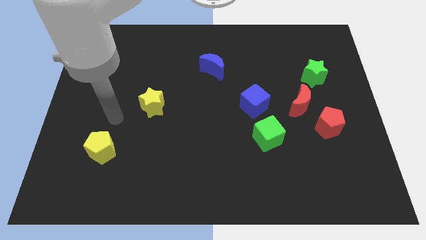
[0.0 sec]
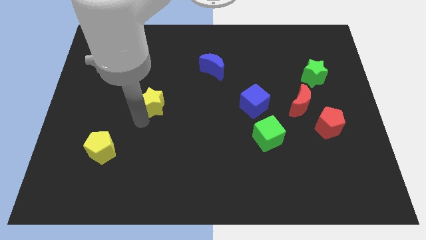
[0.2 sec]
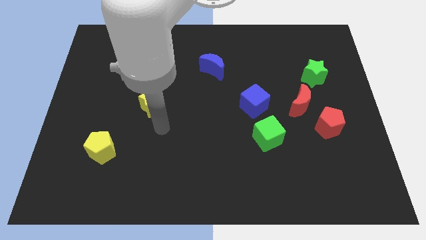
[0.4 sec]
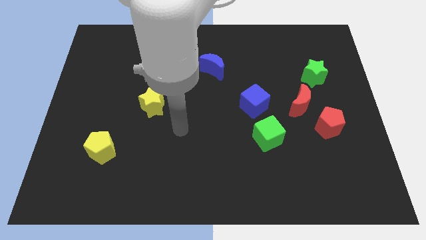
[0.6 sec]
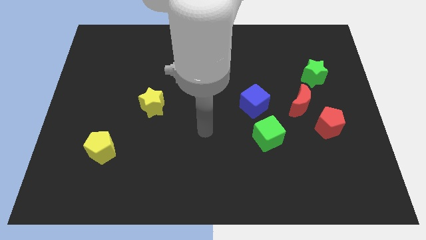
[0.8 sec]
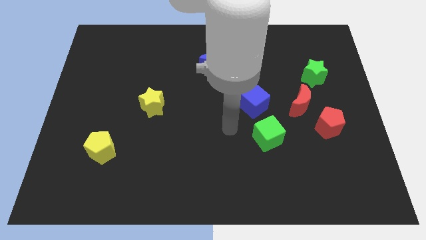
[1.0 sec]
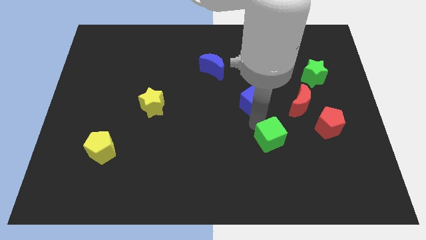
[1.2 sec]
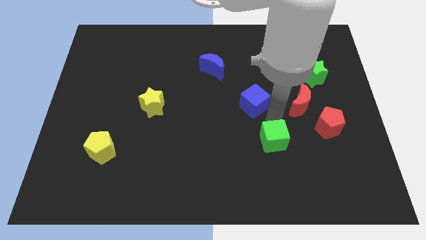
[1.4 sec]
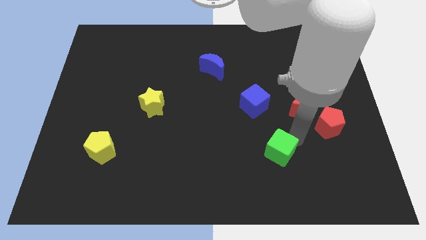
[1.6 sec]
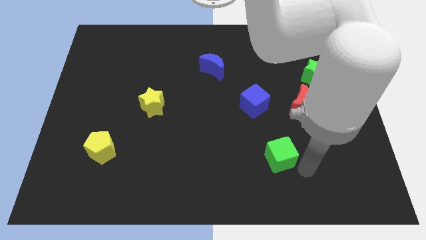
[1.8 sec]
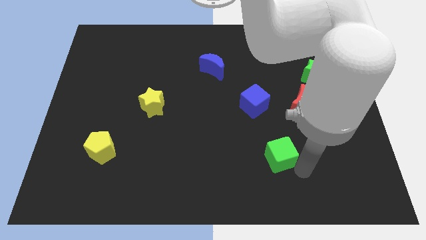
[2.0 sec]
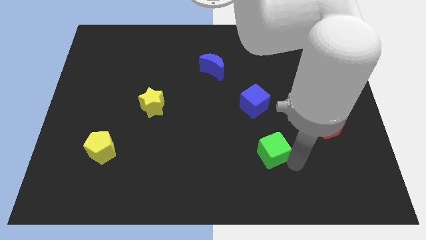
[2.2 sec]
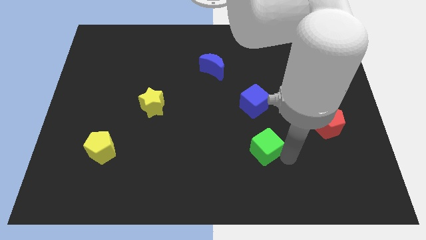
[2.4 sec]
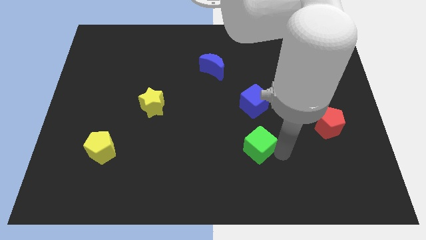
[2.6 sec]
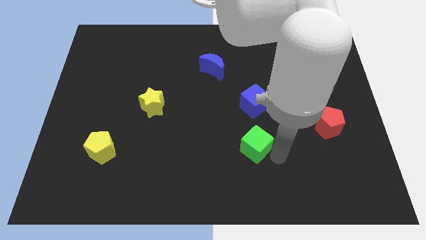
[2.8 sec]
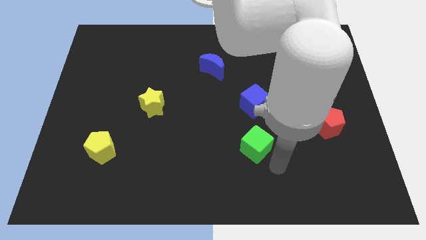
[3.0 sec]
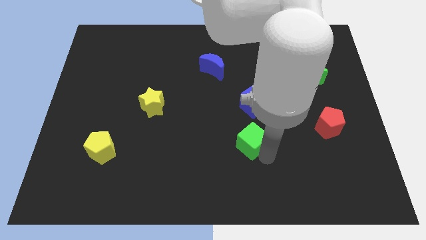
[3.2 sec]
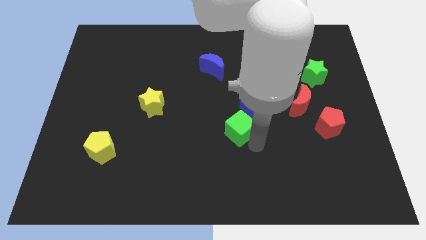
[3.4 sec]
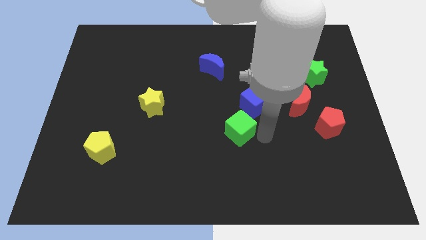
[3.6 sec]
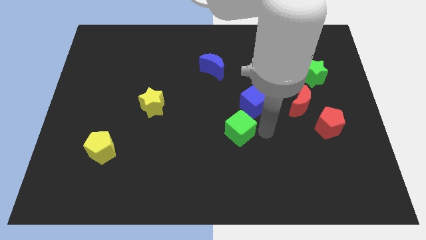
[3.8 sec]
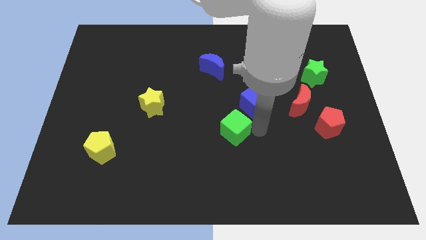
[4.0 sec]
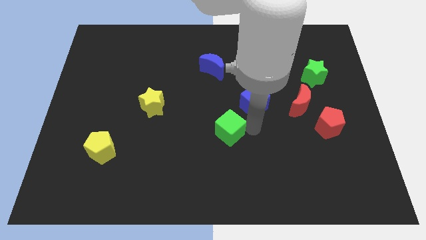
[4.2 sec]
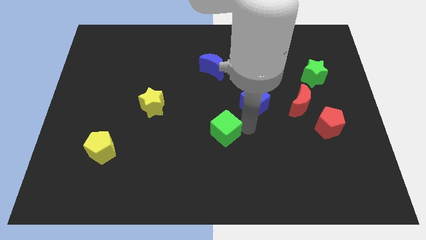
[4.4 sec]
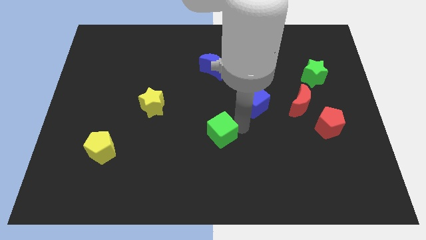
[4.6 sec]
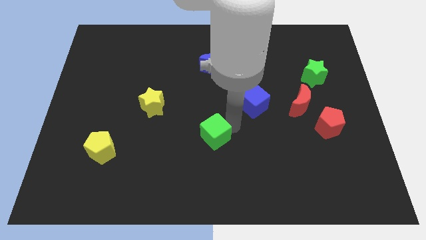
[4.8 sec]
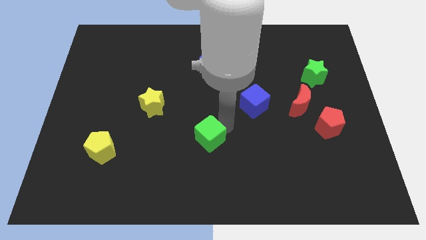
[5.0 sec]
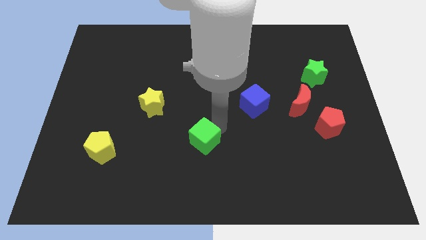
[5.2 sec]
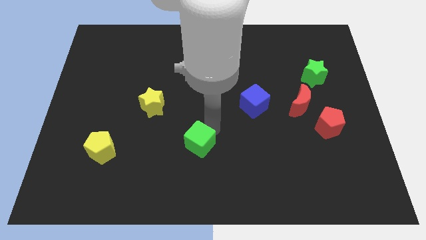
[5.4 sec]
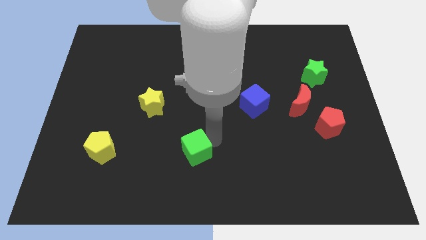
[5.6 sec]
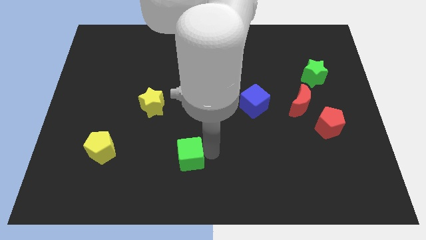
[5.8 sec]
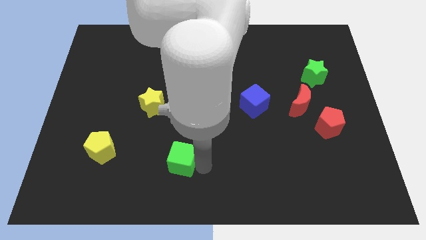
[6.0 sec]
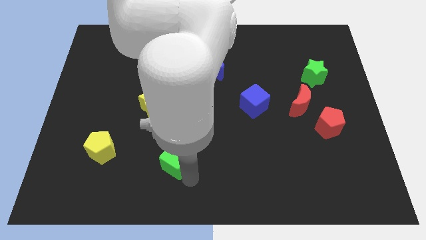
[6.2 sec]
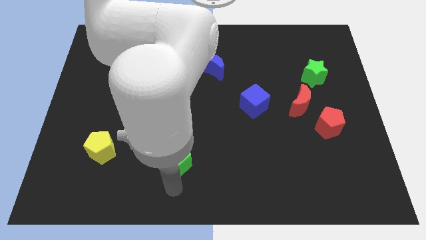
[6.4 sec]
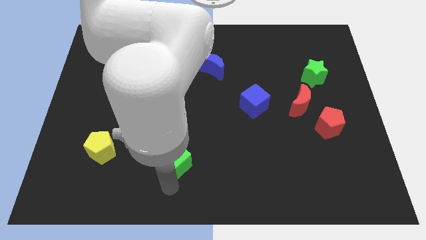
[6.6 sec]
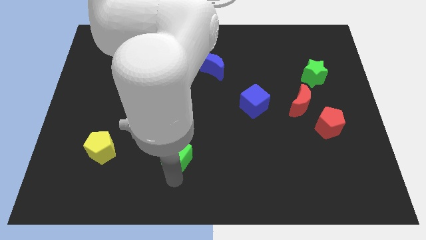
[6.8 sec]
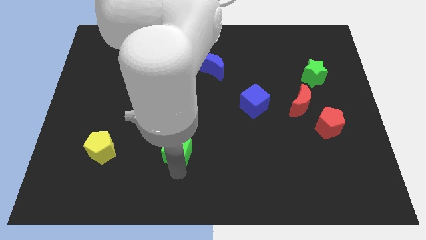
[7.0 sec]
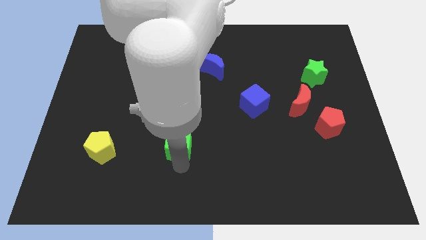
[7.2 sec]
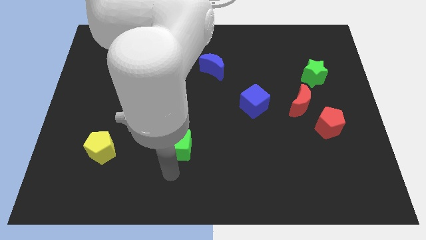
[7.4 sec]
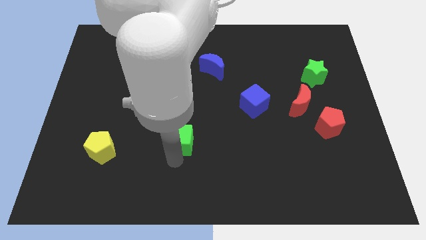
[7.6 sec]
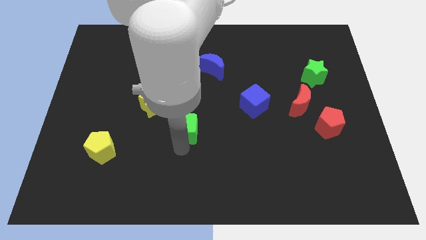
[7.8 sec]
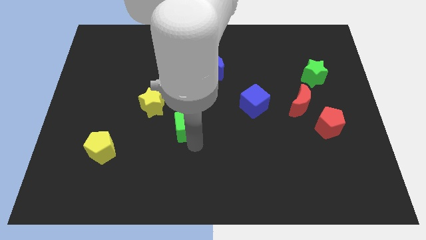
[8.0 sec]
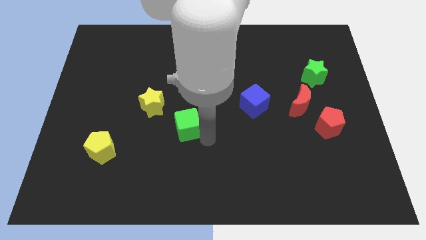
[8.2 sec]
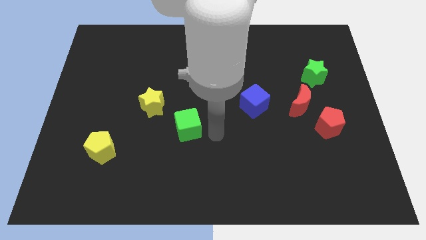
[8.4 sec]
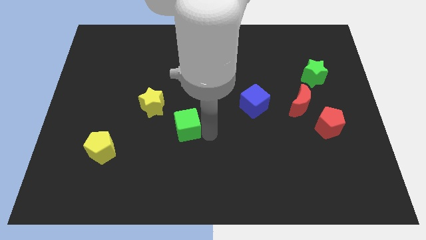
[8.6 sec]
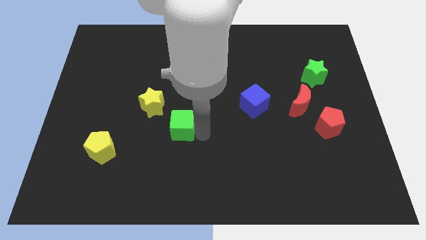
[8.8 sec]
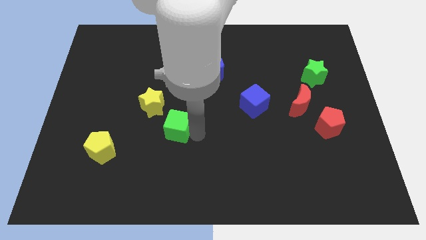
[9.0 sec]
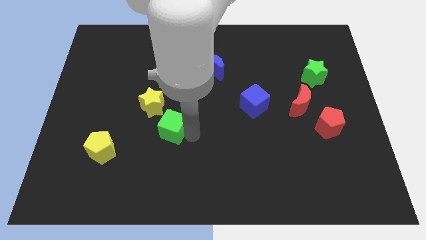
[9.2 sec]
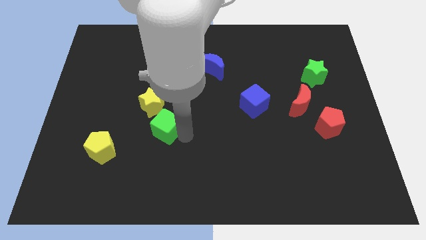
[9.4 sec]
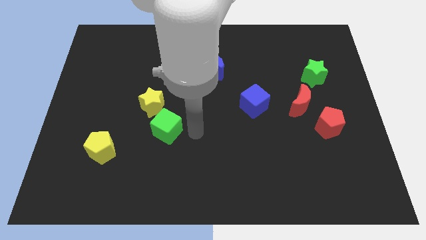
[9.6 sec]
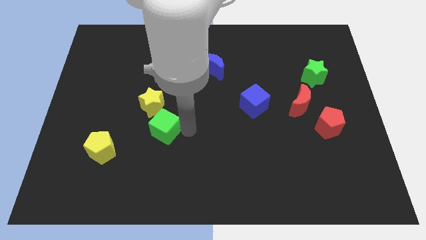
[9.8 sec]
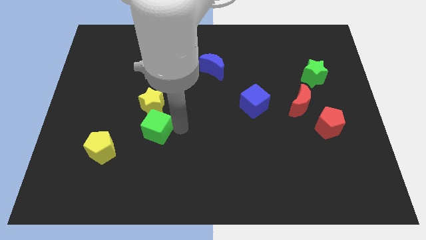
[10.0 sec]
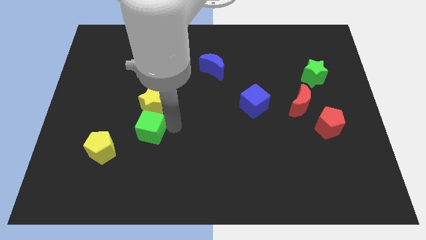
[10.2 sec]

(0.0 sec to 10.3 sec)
slide the green cube to the bottom left side of the yellow star

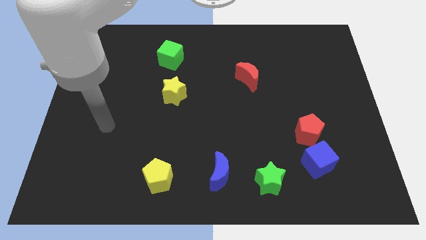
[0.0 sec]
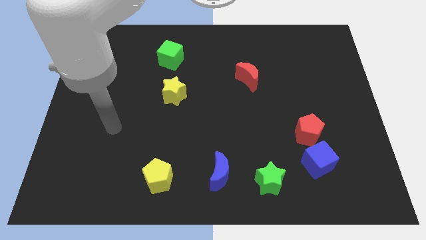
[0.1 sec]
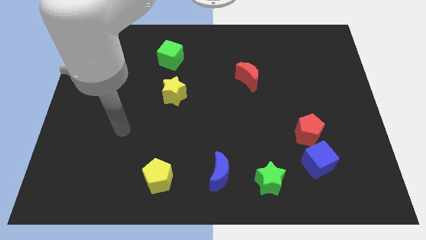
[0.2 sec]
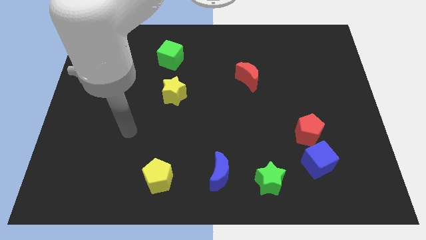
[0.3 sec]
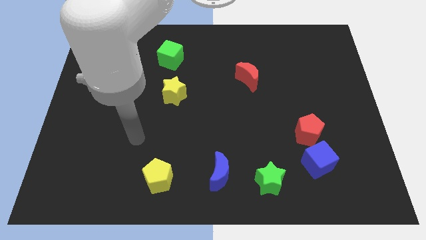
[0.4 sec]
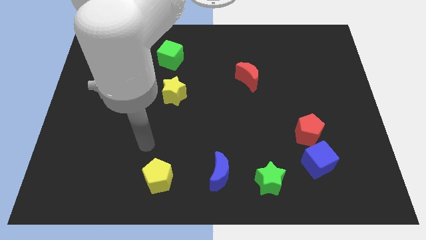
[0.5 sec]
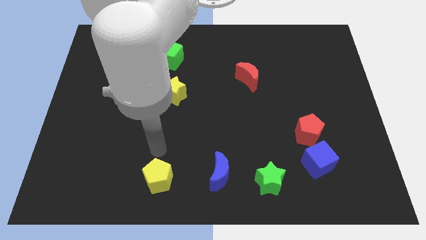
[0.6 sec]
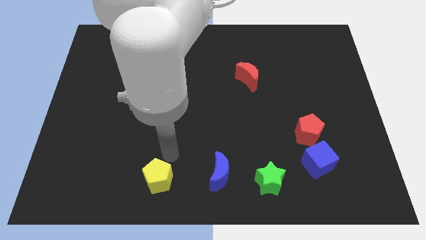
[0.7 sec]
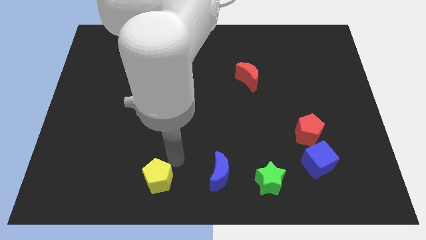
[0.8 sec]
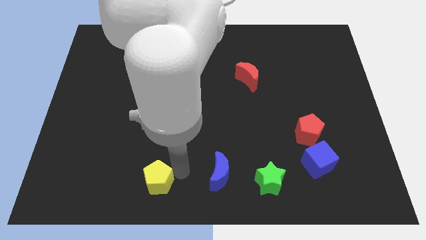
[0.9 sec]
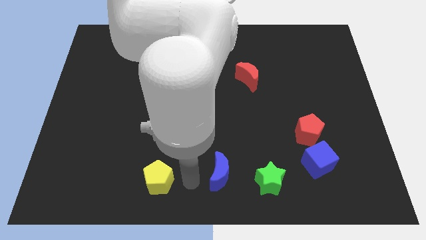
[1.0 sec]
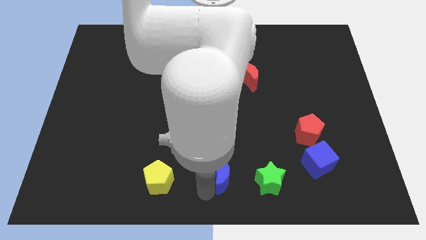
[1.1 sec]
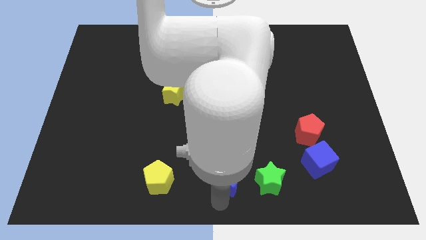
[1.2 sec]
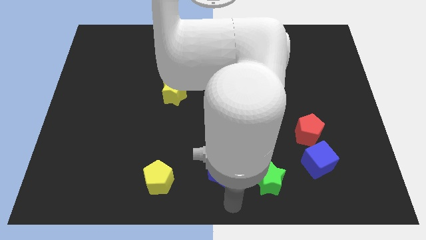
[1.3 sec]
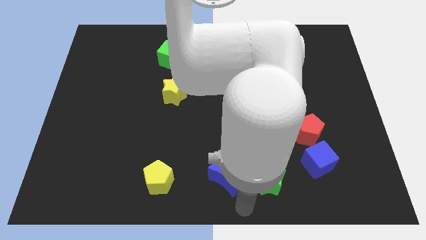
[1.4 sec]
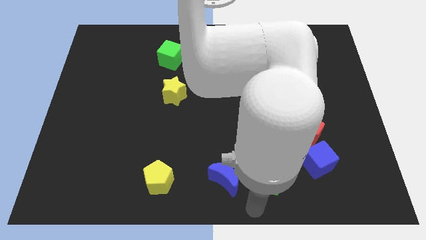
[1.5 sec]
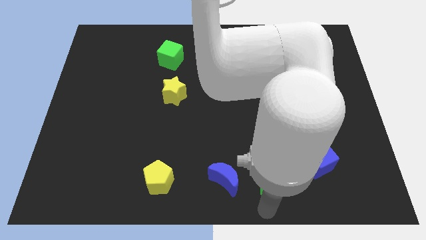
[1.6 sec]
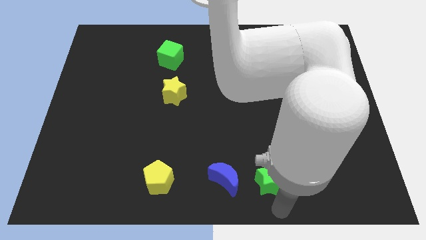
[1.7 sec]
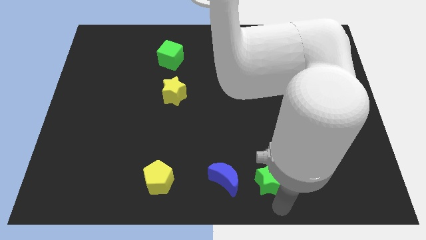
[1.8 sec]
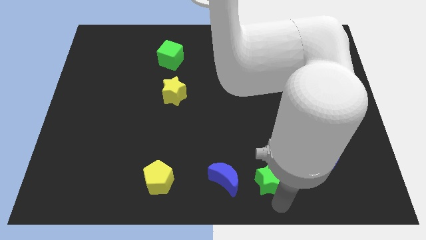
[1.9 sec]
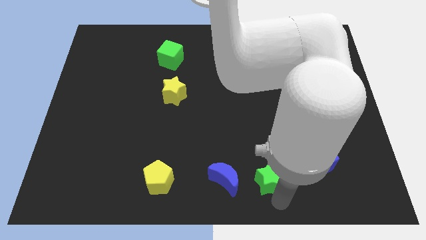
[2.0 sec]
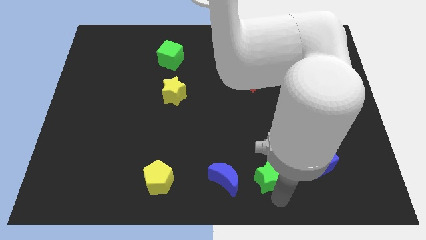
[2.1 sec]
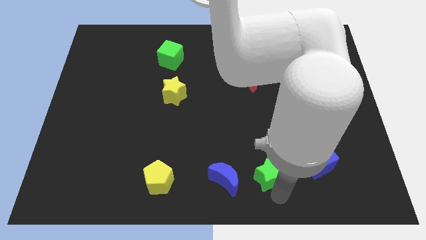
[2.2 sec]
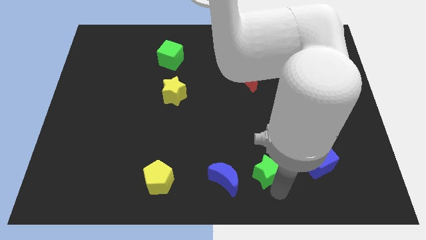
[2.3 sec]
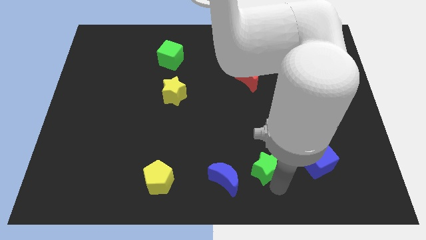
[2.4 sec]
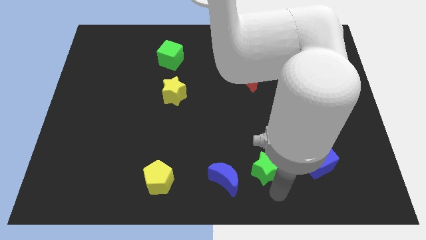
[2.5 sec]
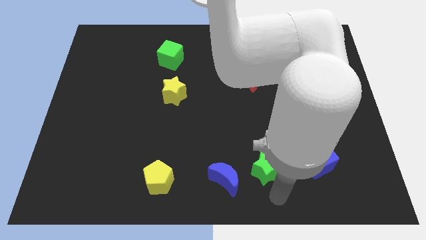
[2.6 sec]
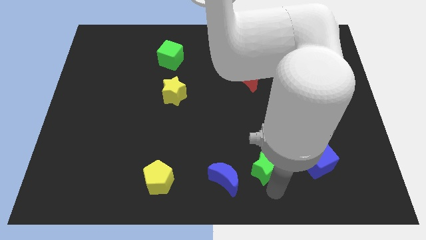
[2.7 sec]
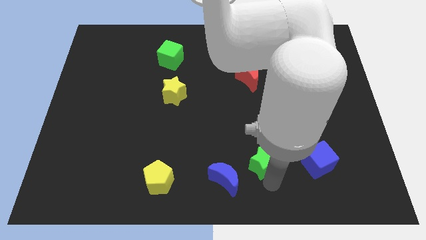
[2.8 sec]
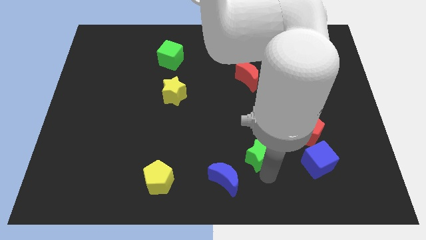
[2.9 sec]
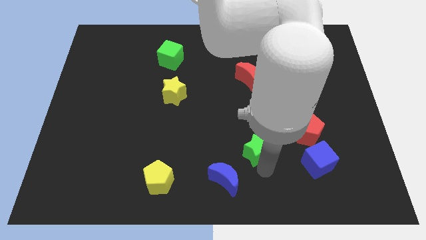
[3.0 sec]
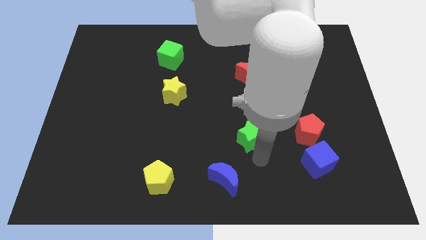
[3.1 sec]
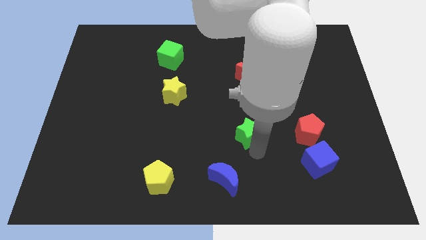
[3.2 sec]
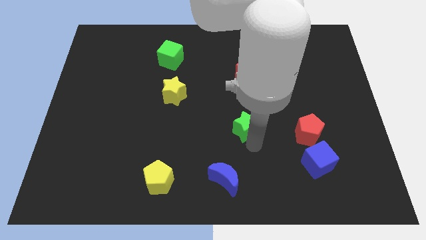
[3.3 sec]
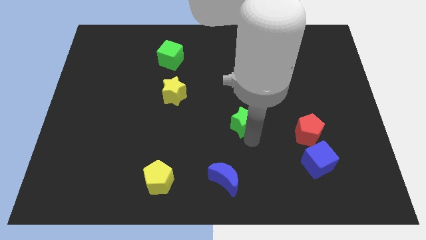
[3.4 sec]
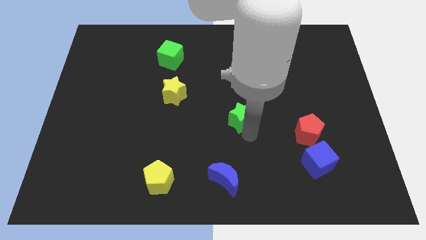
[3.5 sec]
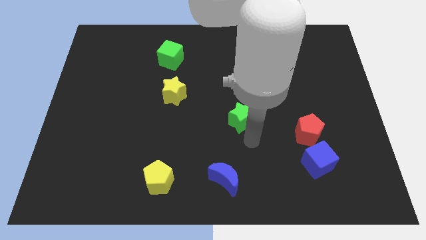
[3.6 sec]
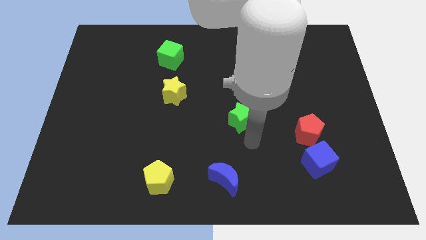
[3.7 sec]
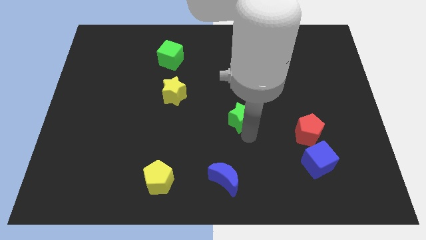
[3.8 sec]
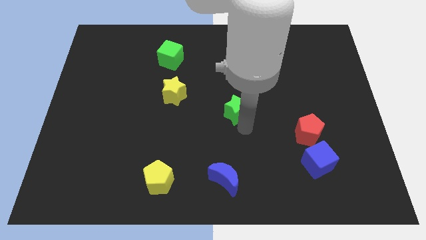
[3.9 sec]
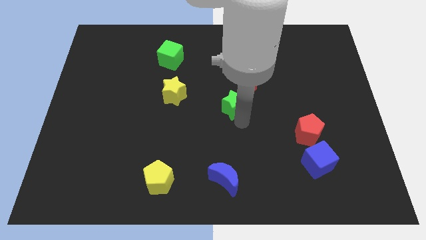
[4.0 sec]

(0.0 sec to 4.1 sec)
put the green star to the bottom left of the red moon
